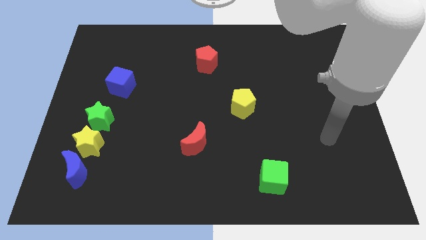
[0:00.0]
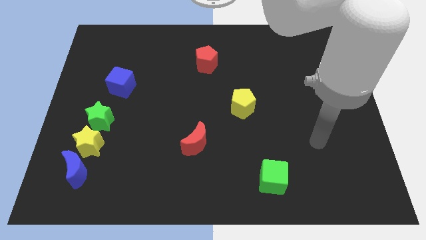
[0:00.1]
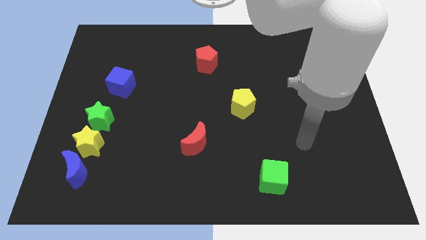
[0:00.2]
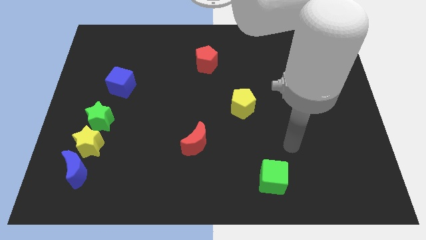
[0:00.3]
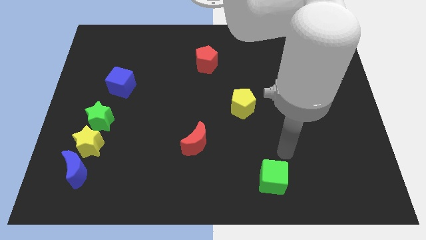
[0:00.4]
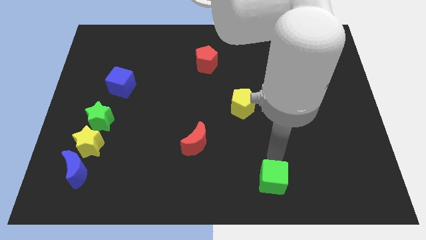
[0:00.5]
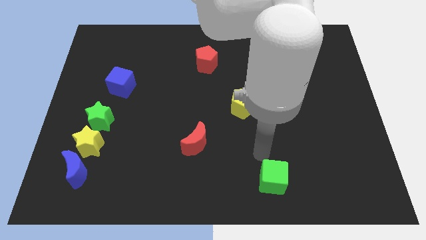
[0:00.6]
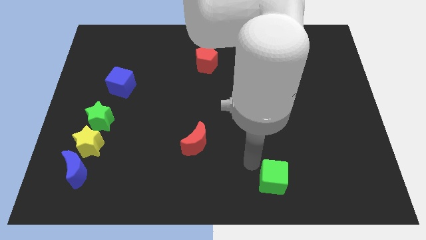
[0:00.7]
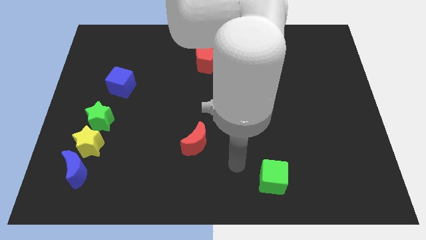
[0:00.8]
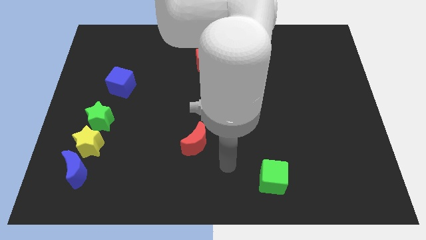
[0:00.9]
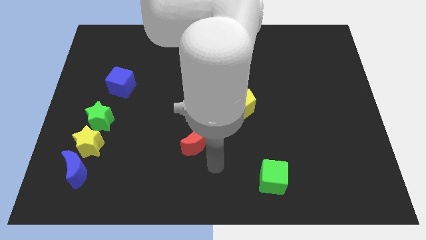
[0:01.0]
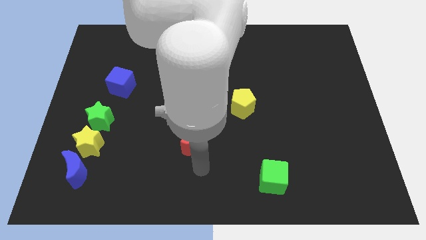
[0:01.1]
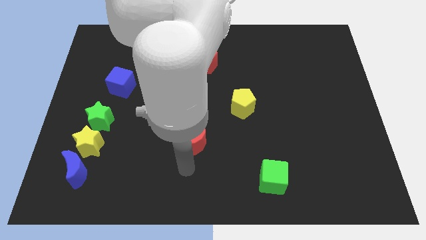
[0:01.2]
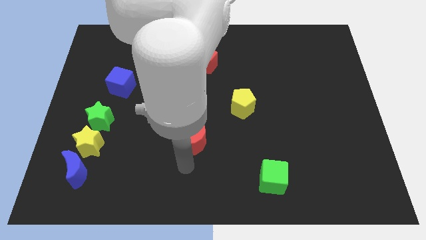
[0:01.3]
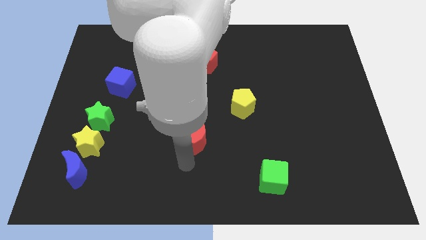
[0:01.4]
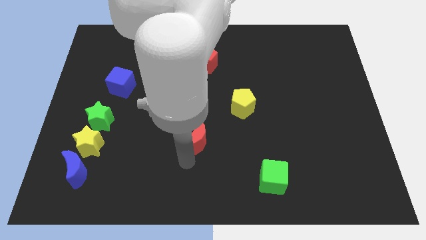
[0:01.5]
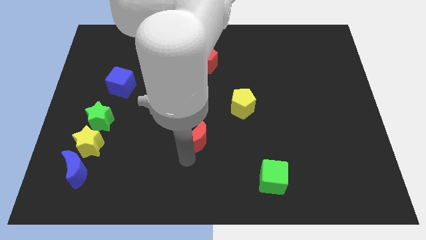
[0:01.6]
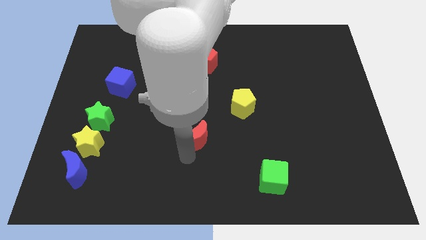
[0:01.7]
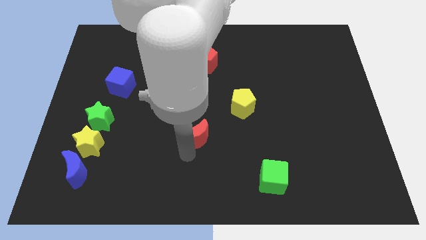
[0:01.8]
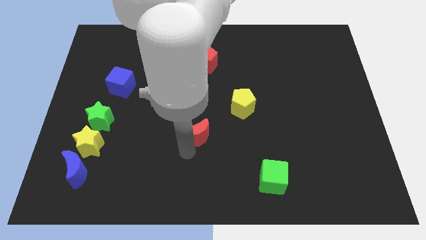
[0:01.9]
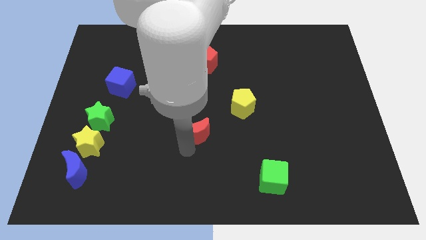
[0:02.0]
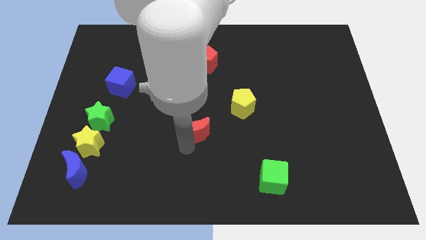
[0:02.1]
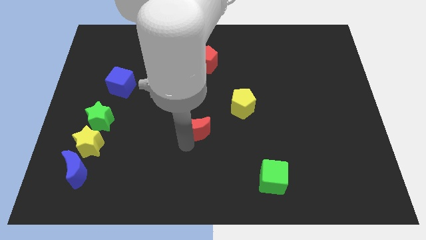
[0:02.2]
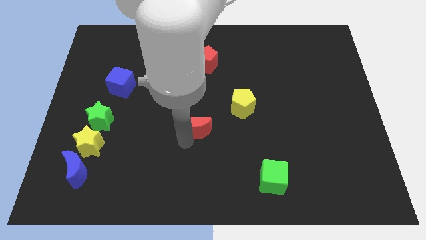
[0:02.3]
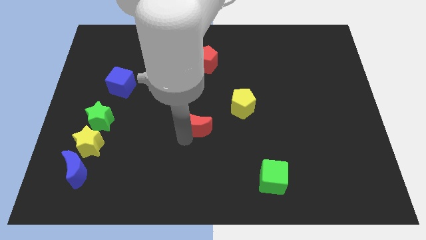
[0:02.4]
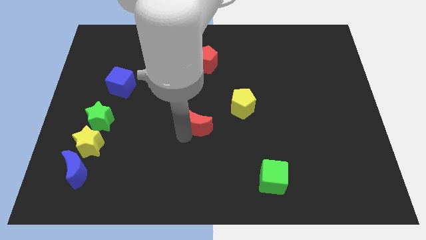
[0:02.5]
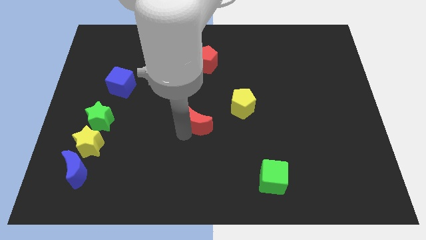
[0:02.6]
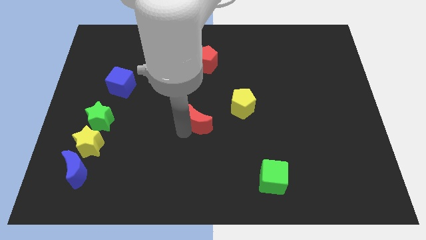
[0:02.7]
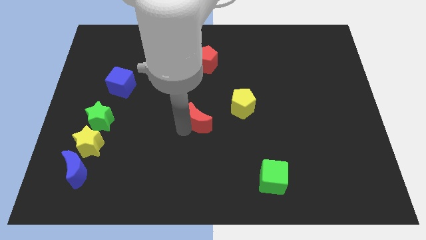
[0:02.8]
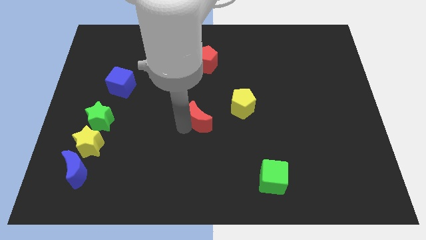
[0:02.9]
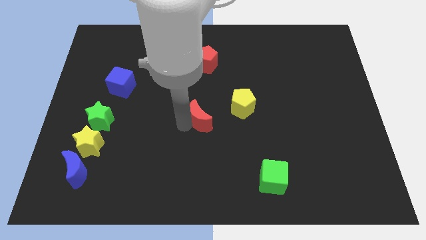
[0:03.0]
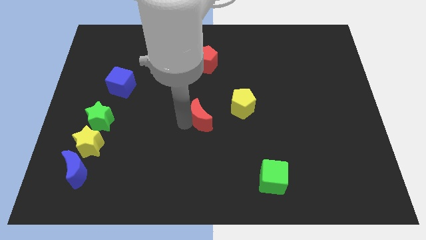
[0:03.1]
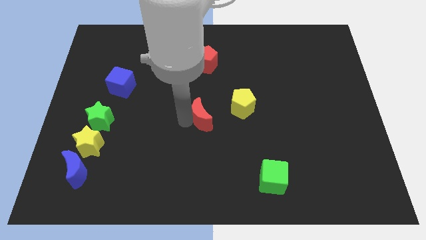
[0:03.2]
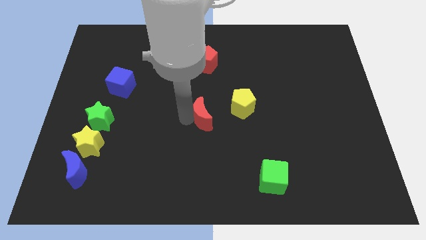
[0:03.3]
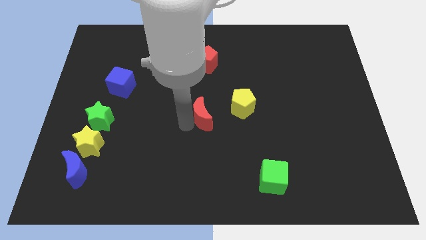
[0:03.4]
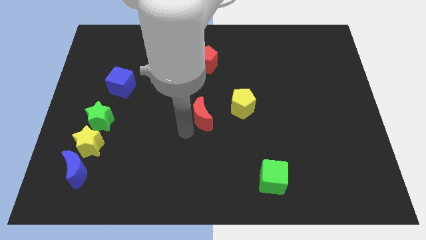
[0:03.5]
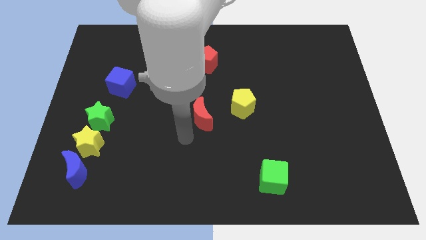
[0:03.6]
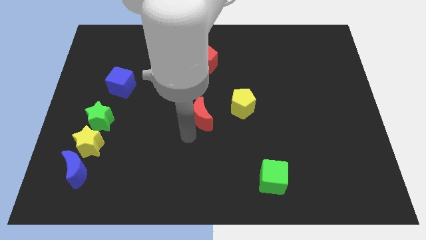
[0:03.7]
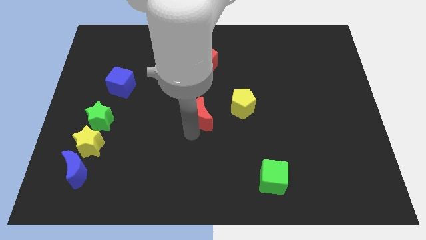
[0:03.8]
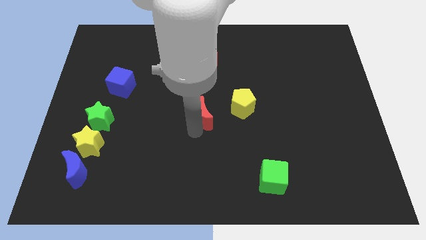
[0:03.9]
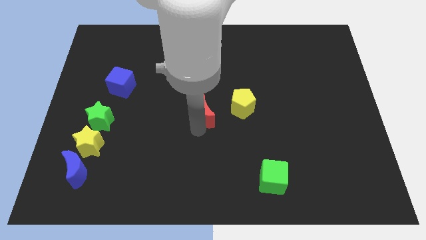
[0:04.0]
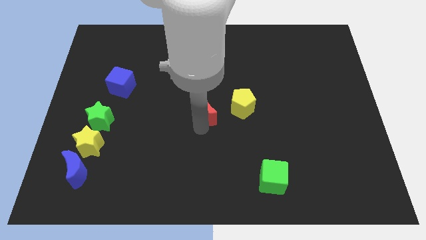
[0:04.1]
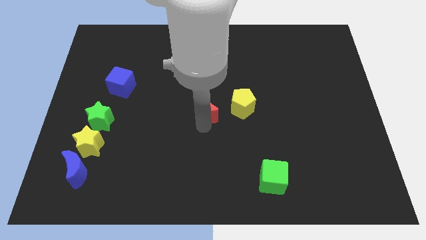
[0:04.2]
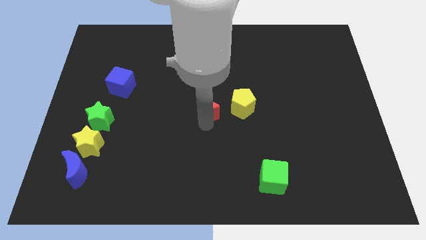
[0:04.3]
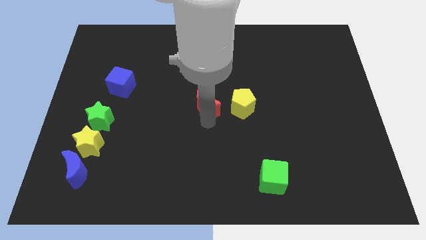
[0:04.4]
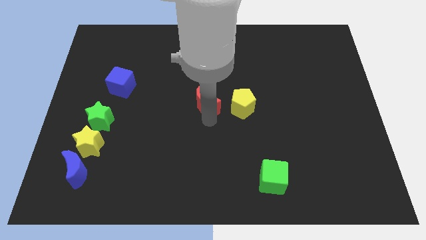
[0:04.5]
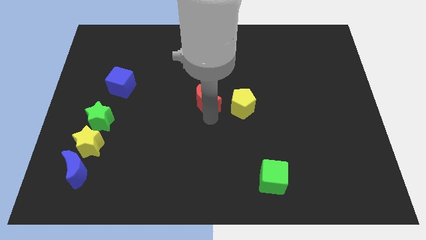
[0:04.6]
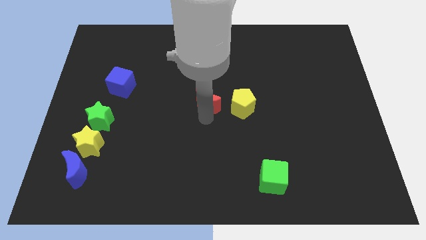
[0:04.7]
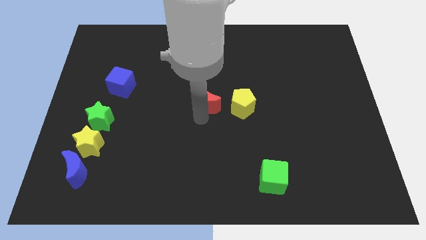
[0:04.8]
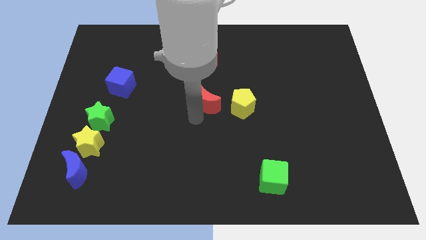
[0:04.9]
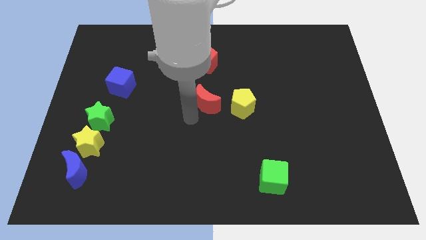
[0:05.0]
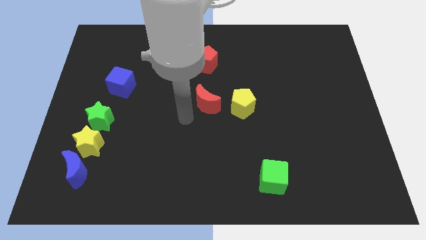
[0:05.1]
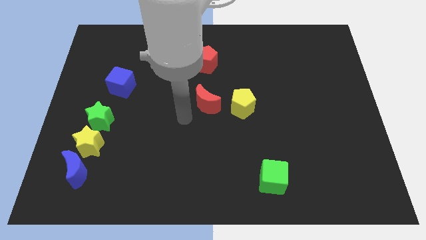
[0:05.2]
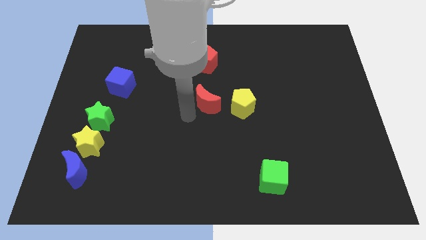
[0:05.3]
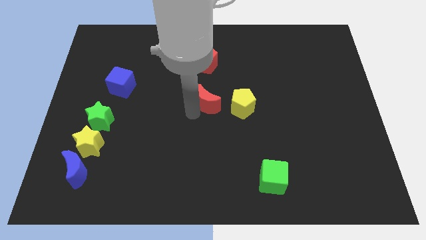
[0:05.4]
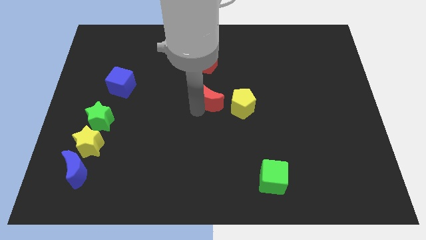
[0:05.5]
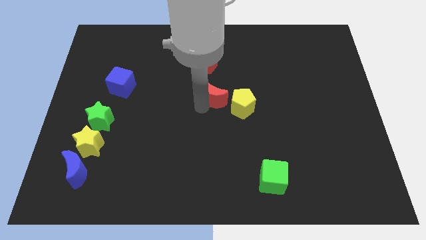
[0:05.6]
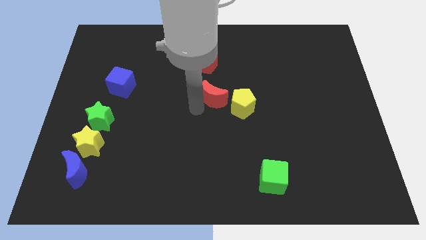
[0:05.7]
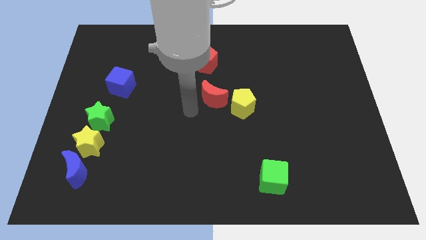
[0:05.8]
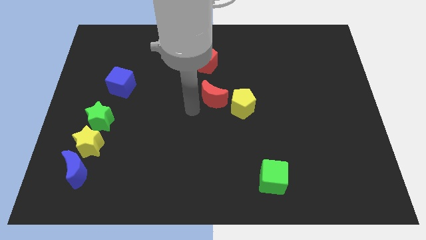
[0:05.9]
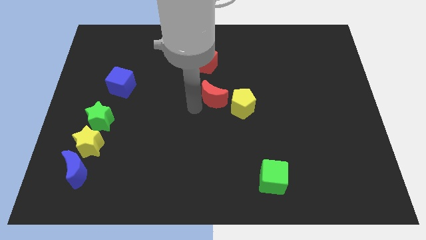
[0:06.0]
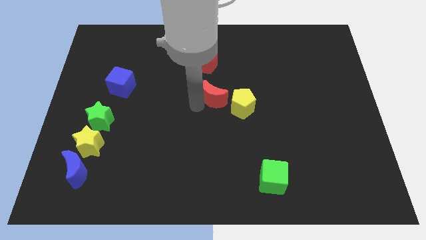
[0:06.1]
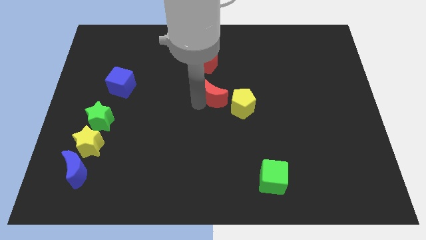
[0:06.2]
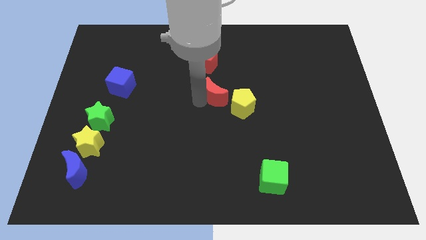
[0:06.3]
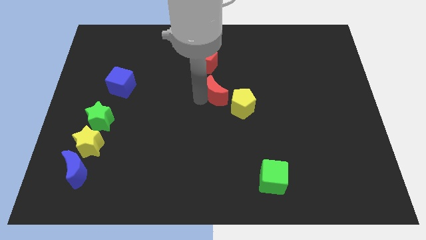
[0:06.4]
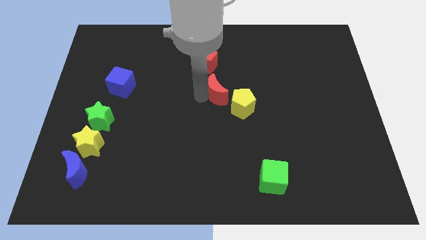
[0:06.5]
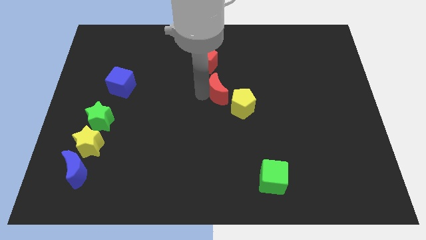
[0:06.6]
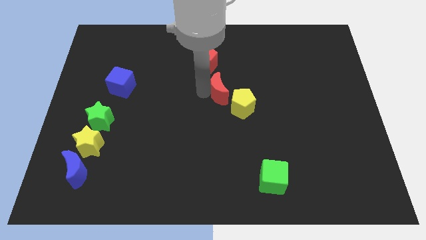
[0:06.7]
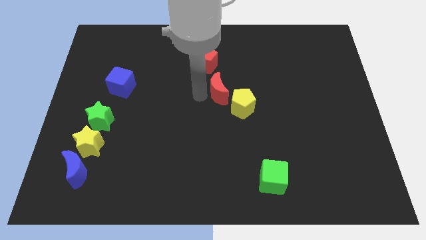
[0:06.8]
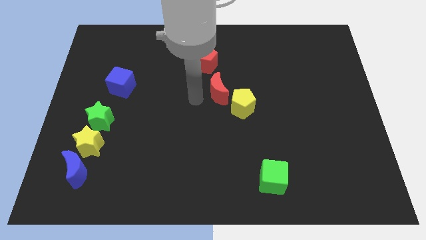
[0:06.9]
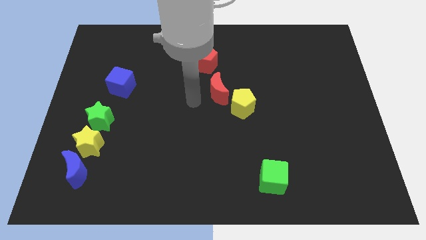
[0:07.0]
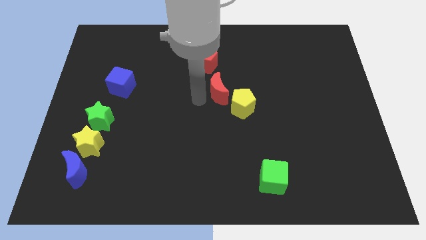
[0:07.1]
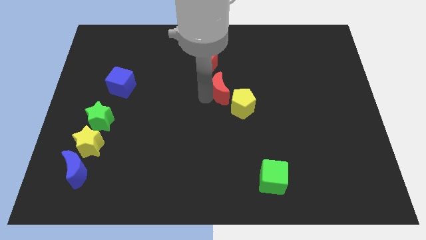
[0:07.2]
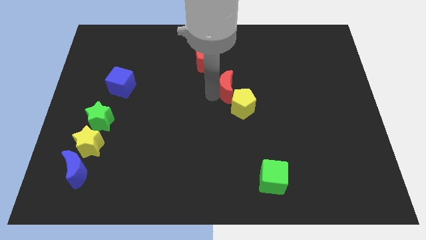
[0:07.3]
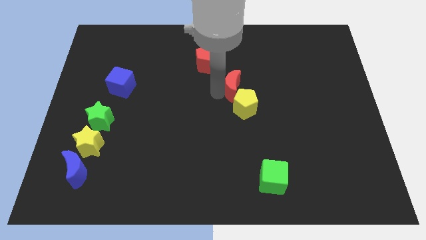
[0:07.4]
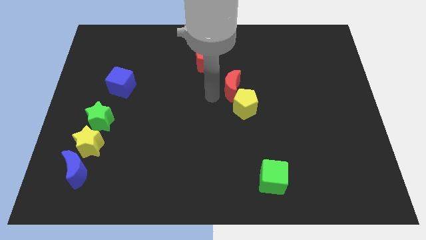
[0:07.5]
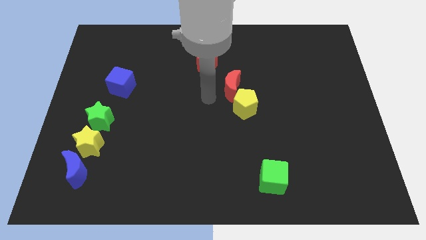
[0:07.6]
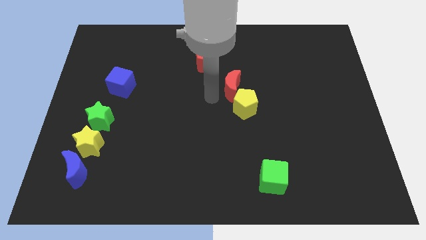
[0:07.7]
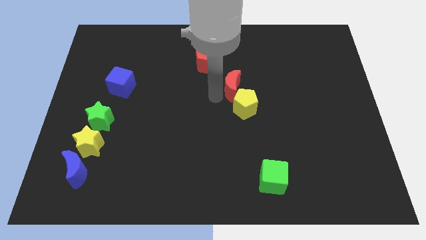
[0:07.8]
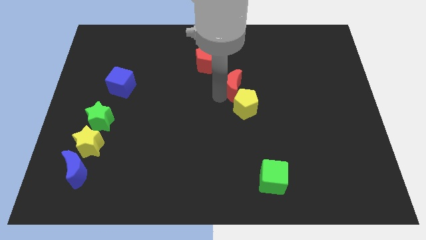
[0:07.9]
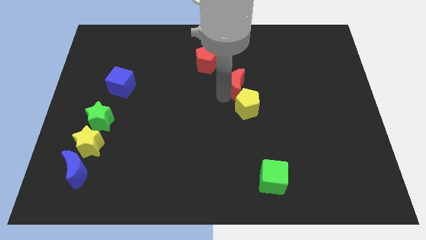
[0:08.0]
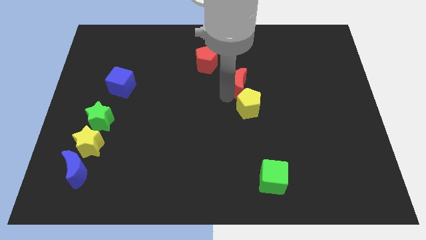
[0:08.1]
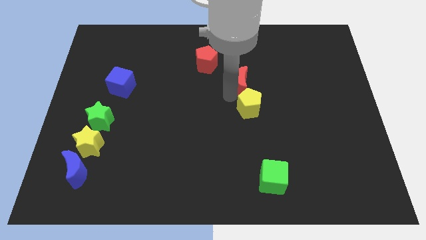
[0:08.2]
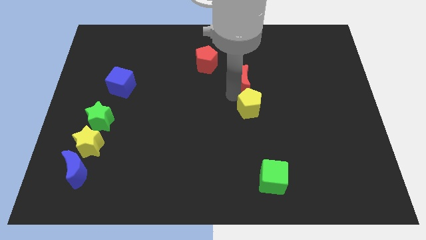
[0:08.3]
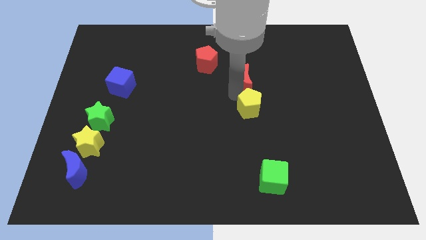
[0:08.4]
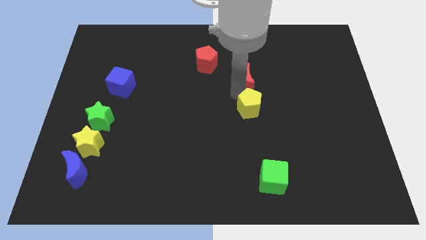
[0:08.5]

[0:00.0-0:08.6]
move the red moon upwards and to the right diagonally
